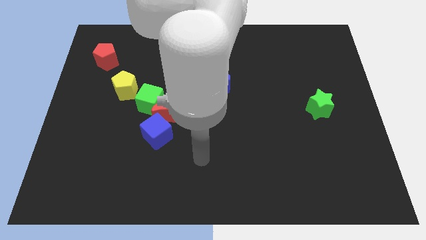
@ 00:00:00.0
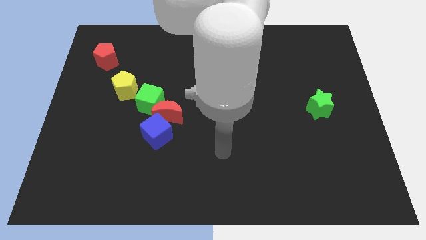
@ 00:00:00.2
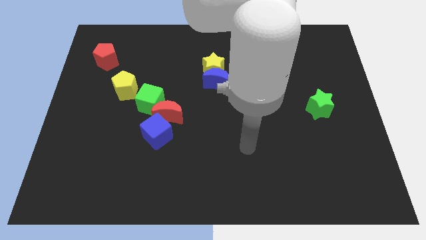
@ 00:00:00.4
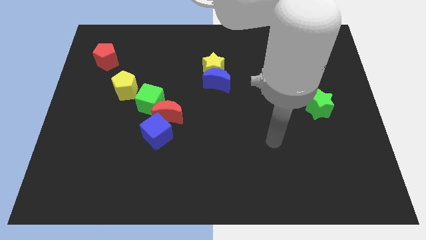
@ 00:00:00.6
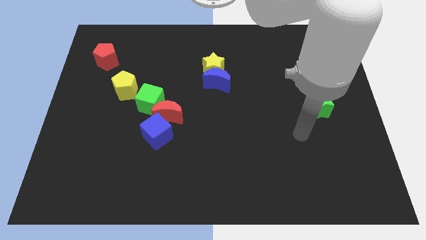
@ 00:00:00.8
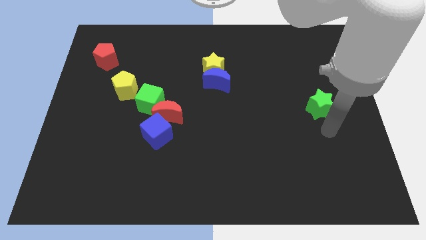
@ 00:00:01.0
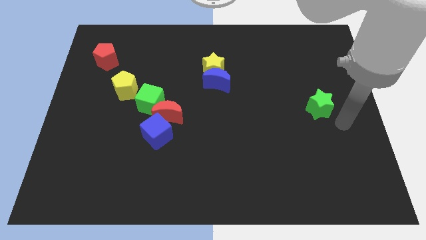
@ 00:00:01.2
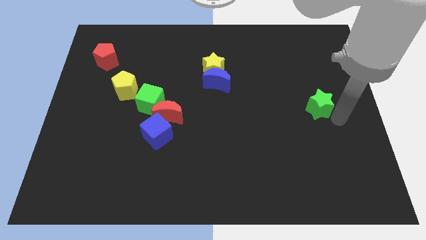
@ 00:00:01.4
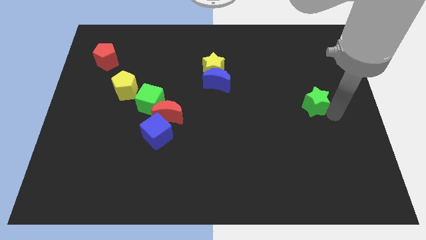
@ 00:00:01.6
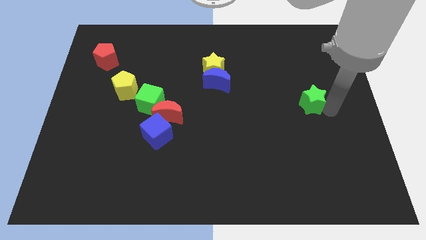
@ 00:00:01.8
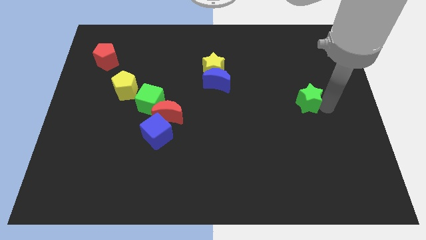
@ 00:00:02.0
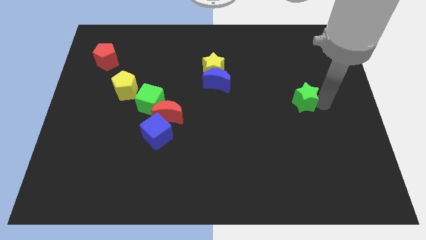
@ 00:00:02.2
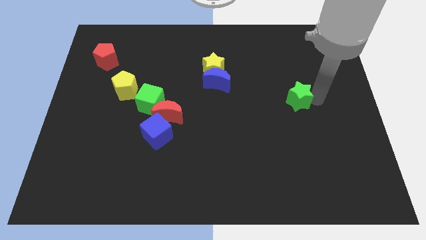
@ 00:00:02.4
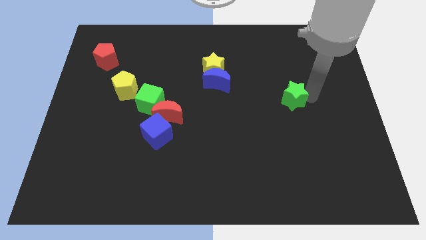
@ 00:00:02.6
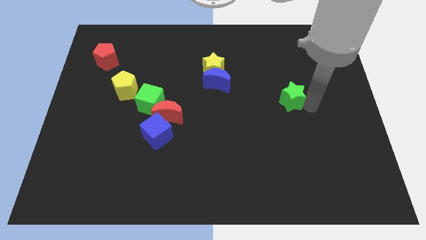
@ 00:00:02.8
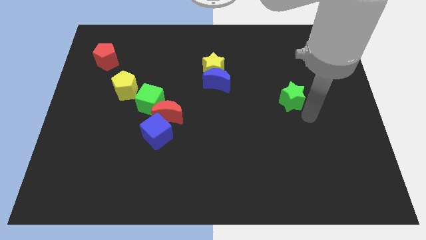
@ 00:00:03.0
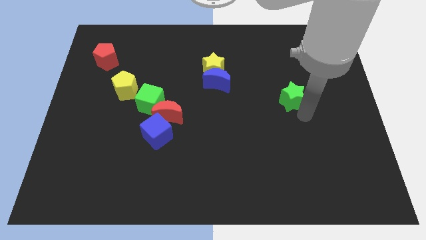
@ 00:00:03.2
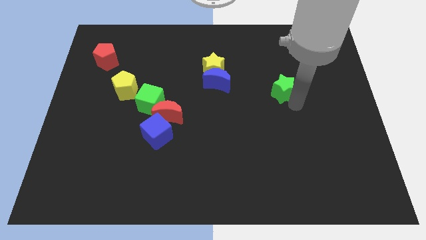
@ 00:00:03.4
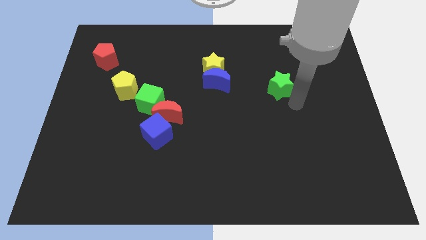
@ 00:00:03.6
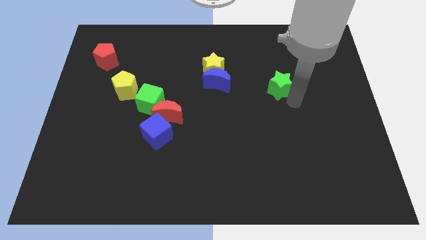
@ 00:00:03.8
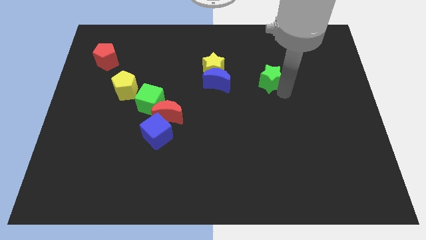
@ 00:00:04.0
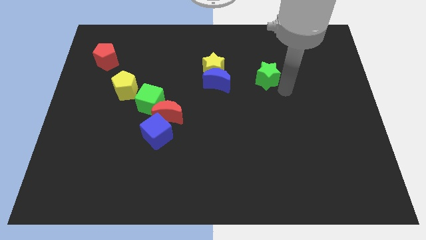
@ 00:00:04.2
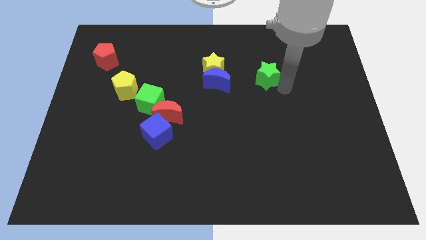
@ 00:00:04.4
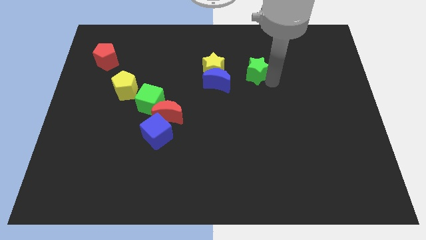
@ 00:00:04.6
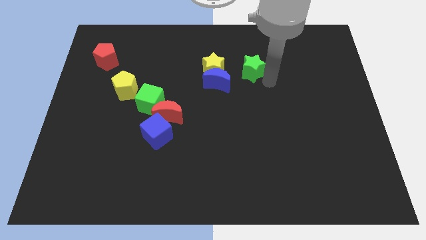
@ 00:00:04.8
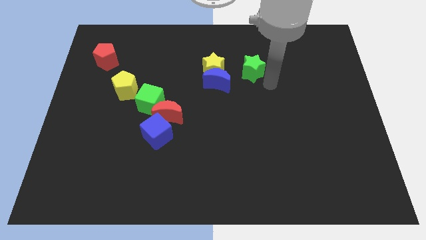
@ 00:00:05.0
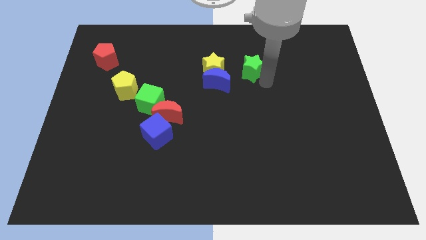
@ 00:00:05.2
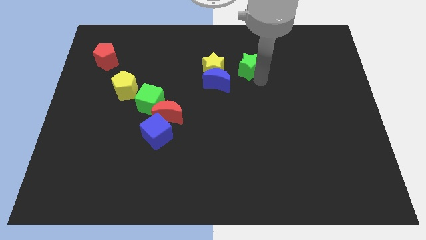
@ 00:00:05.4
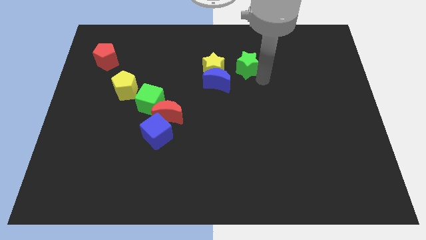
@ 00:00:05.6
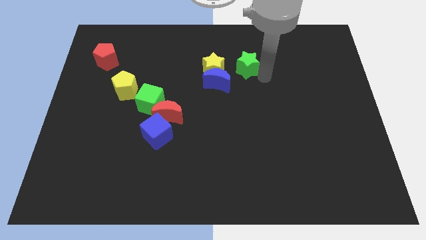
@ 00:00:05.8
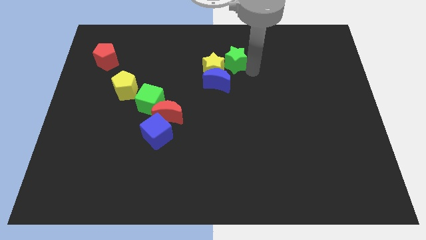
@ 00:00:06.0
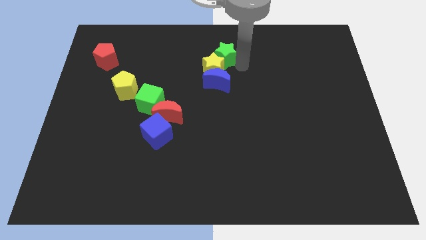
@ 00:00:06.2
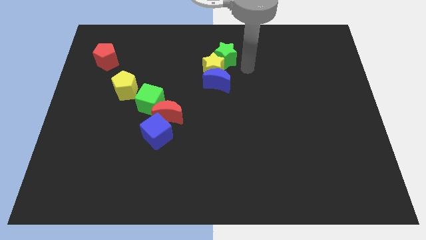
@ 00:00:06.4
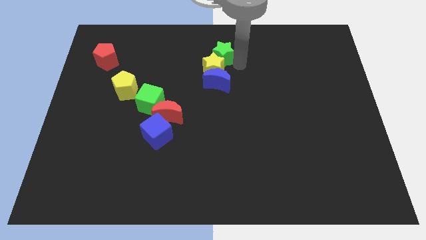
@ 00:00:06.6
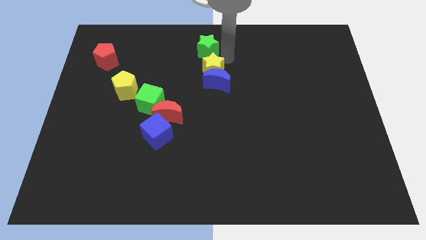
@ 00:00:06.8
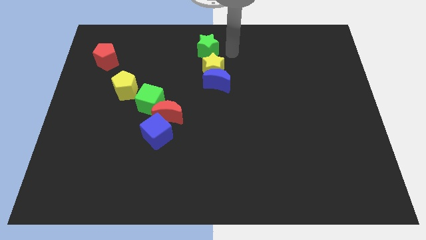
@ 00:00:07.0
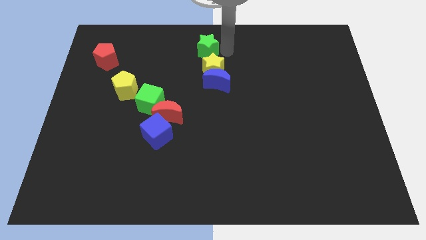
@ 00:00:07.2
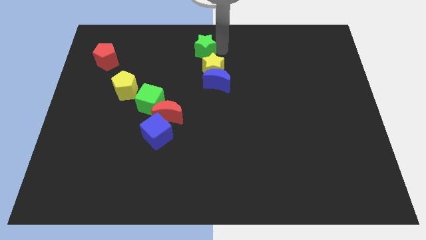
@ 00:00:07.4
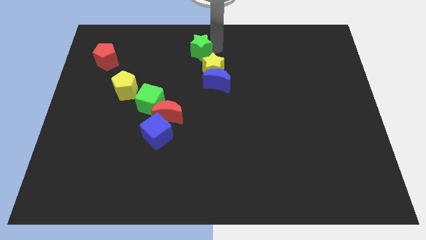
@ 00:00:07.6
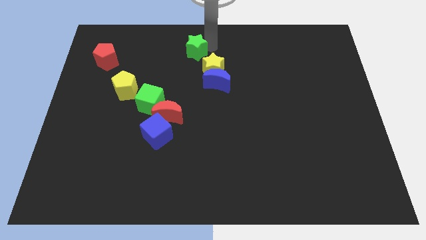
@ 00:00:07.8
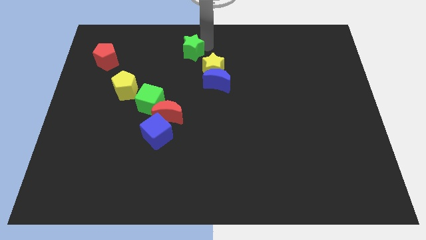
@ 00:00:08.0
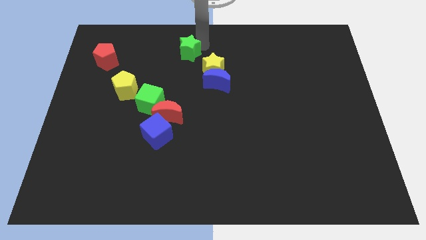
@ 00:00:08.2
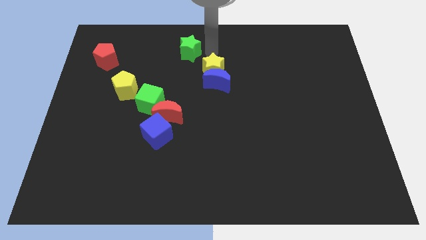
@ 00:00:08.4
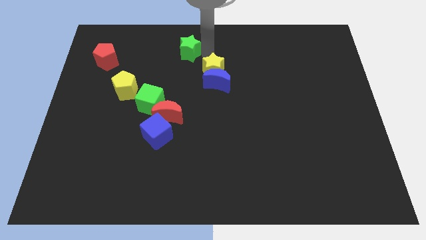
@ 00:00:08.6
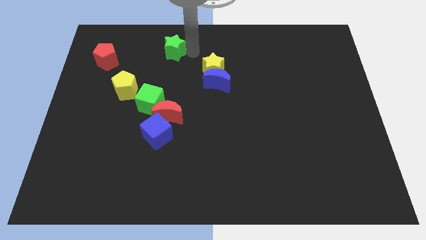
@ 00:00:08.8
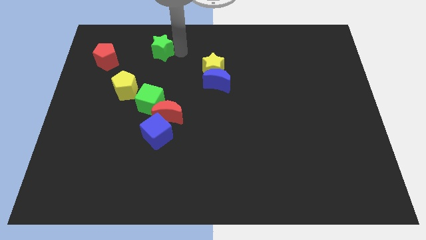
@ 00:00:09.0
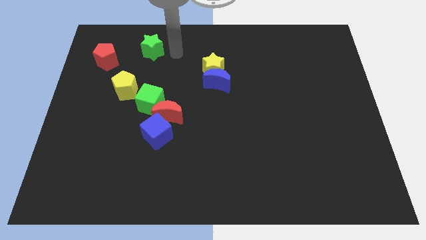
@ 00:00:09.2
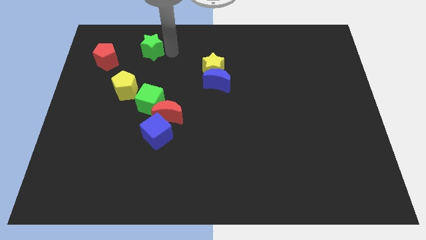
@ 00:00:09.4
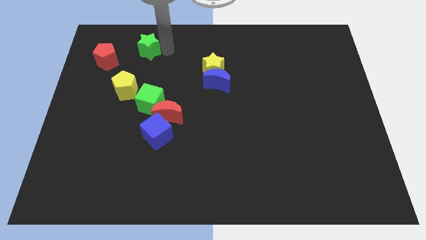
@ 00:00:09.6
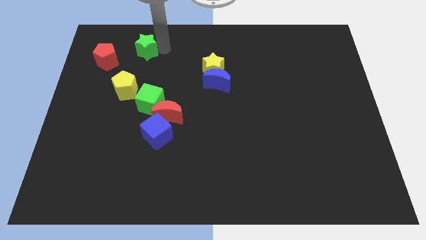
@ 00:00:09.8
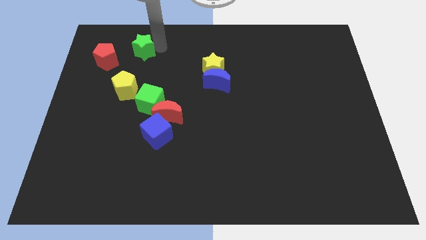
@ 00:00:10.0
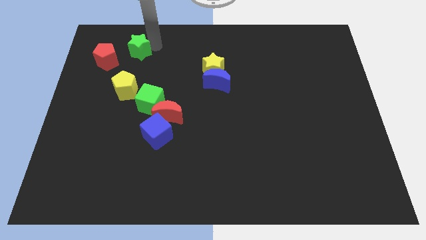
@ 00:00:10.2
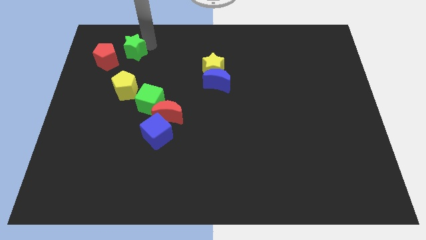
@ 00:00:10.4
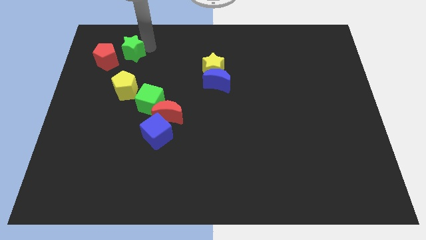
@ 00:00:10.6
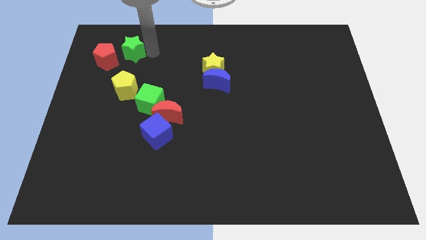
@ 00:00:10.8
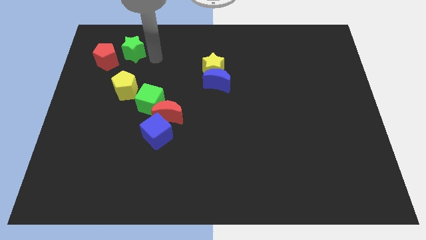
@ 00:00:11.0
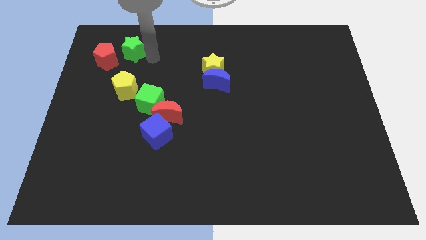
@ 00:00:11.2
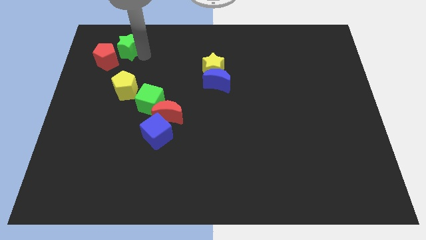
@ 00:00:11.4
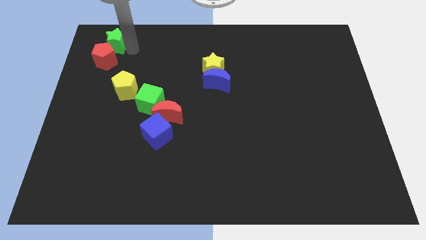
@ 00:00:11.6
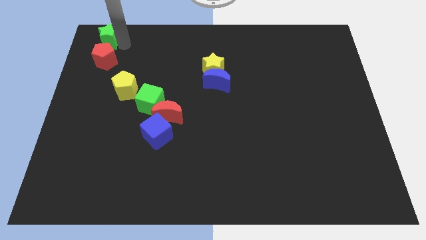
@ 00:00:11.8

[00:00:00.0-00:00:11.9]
put the green star to the top left corner
